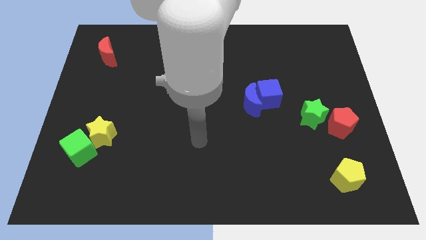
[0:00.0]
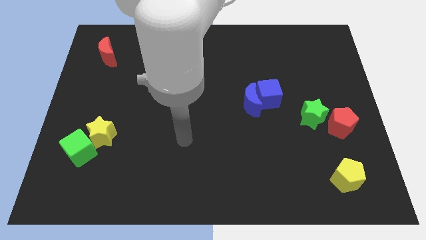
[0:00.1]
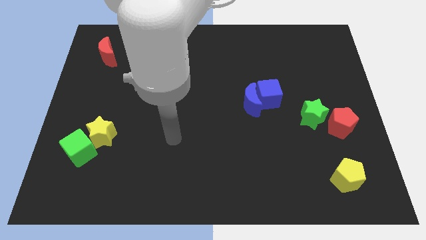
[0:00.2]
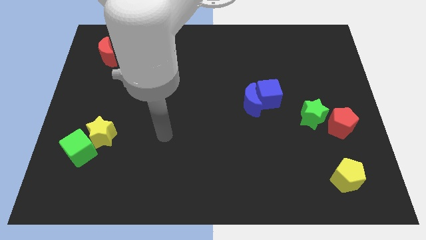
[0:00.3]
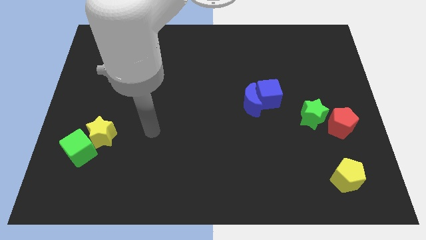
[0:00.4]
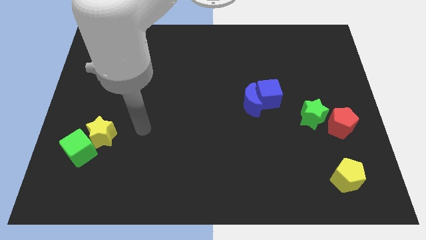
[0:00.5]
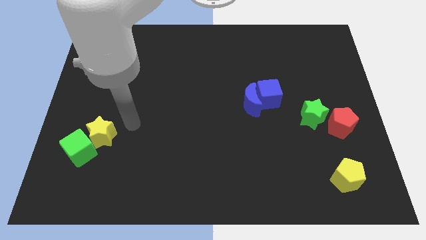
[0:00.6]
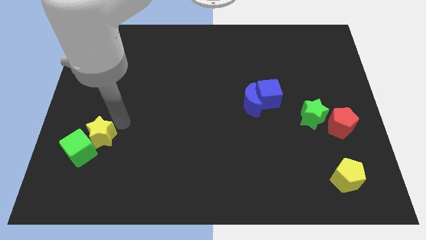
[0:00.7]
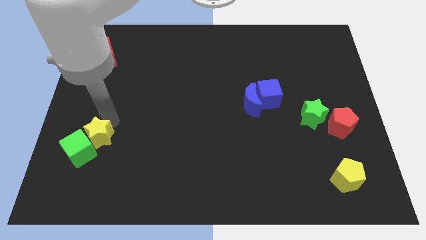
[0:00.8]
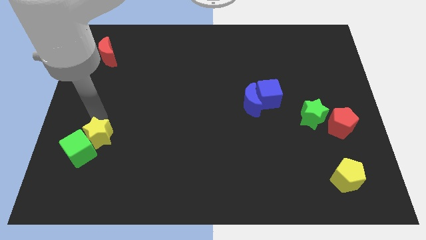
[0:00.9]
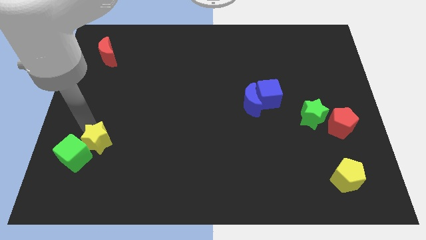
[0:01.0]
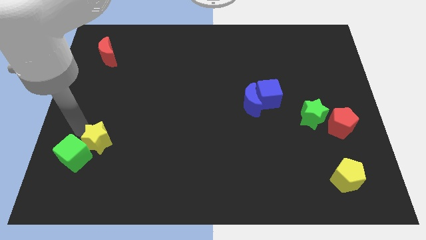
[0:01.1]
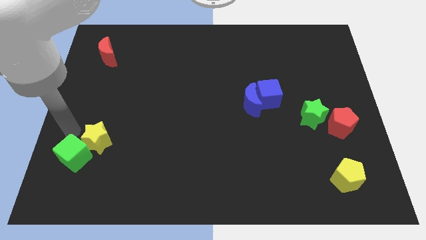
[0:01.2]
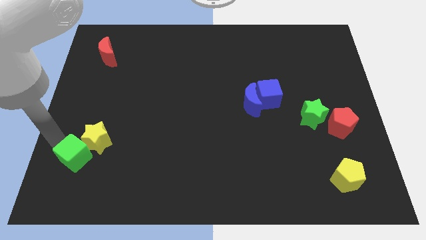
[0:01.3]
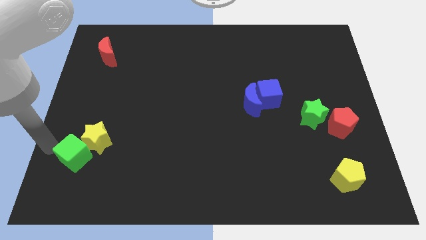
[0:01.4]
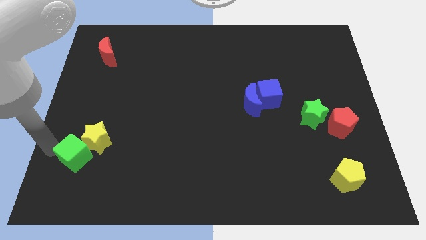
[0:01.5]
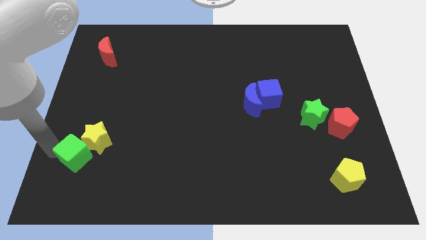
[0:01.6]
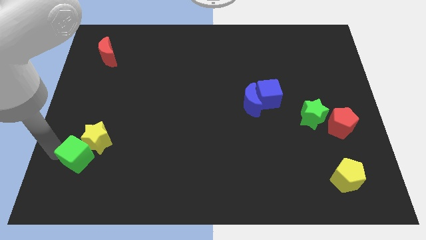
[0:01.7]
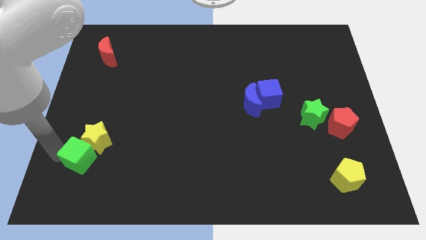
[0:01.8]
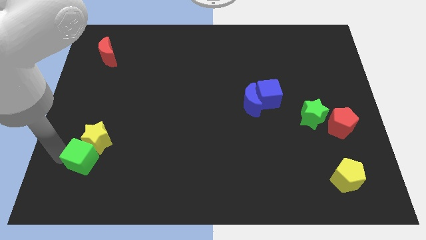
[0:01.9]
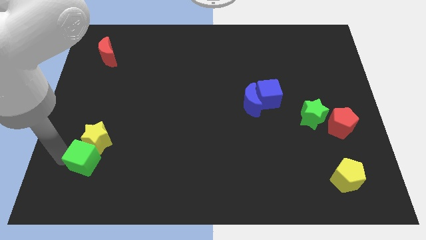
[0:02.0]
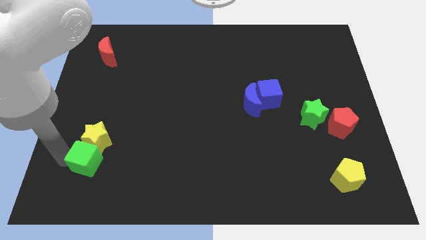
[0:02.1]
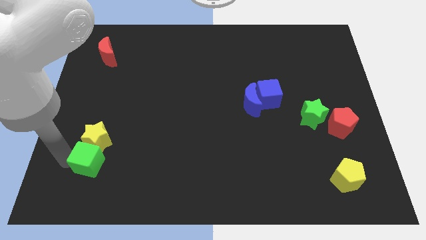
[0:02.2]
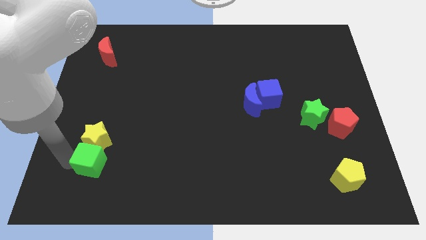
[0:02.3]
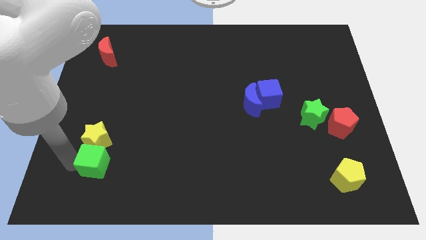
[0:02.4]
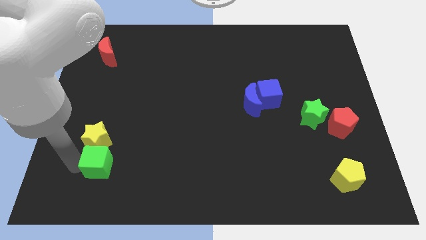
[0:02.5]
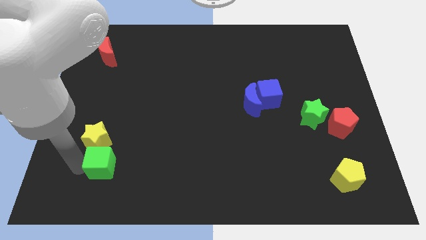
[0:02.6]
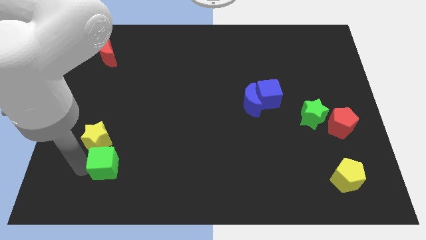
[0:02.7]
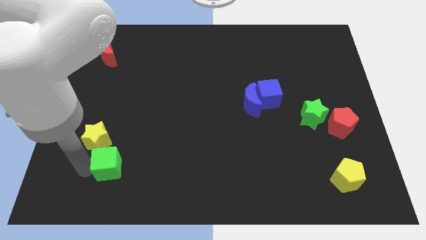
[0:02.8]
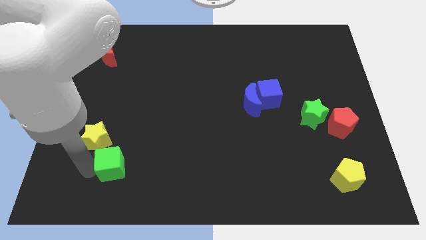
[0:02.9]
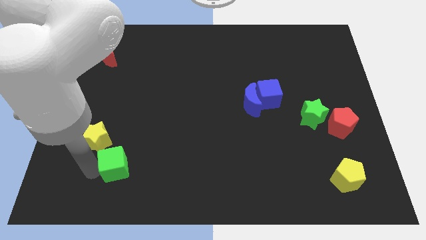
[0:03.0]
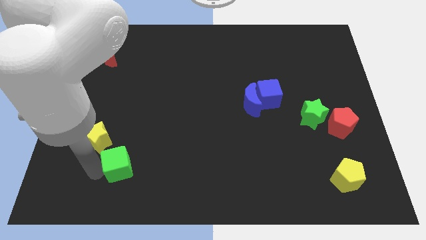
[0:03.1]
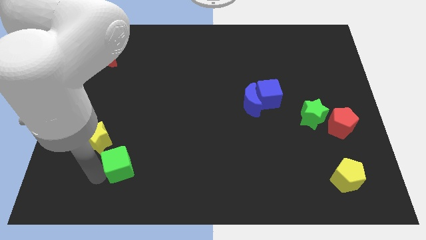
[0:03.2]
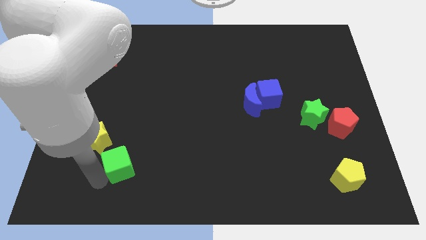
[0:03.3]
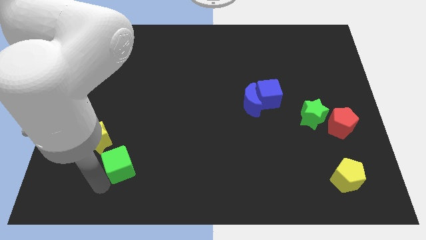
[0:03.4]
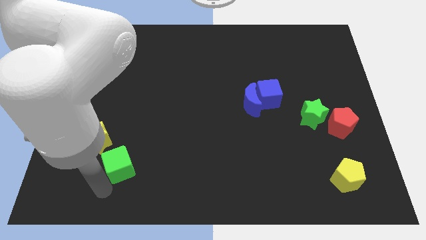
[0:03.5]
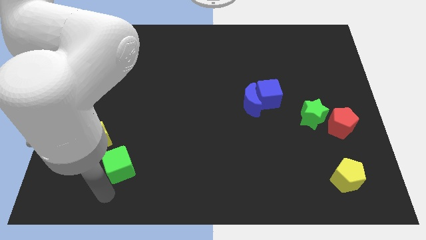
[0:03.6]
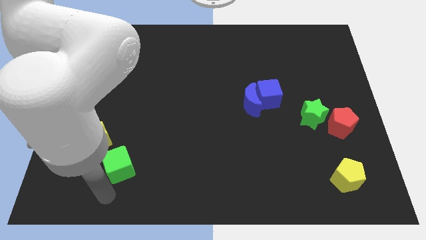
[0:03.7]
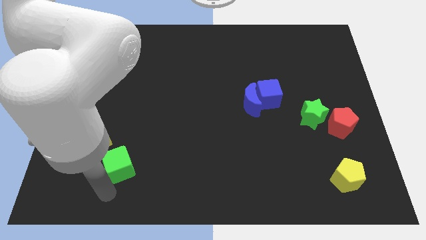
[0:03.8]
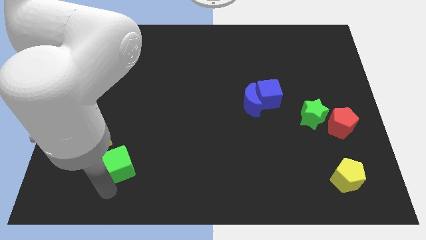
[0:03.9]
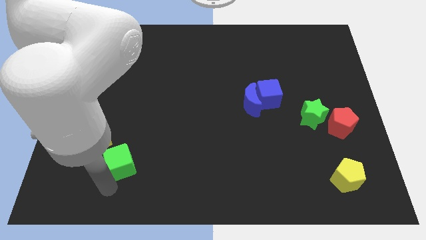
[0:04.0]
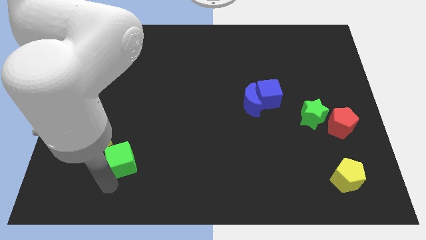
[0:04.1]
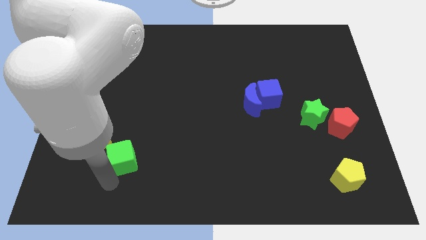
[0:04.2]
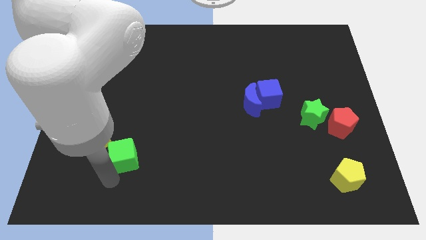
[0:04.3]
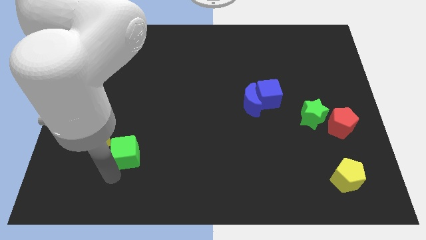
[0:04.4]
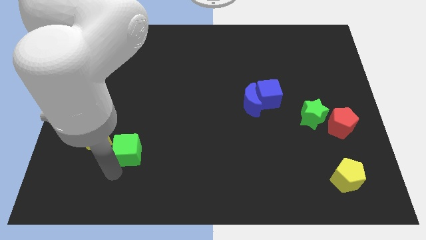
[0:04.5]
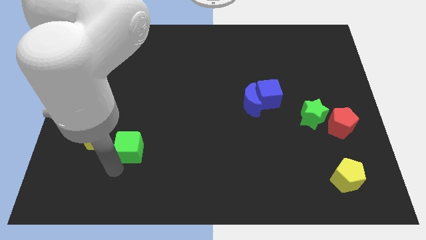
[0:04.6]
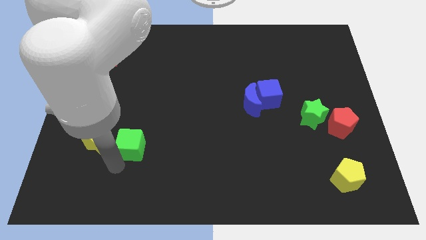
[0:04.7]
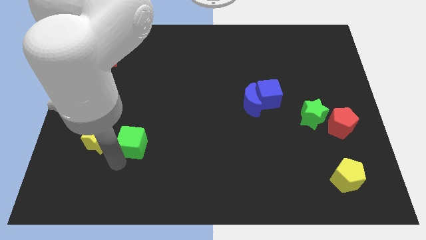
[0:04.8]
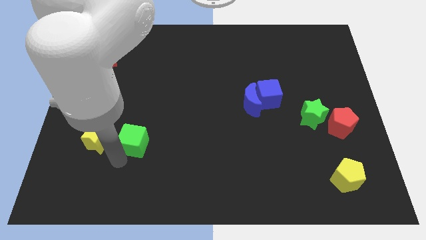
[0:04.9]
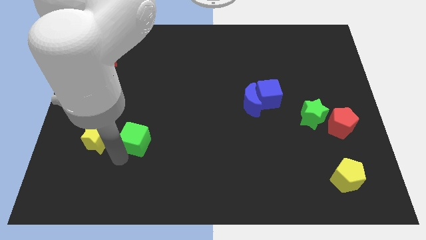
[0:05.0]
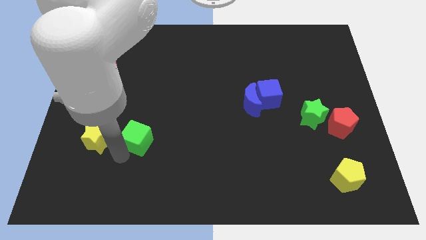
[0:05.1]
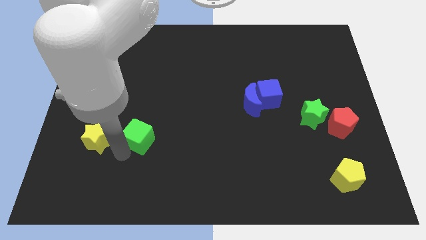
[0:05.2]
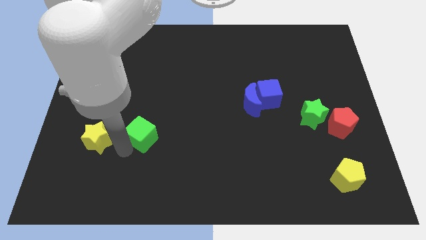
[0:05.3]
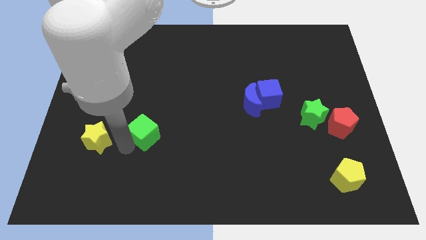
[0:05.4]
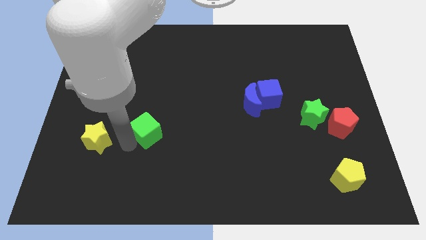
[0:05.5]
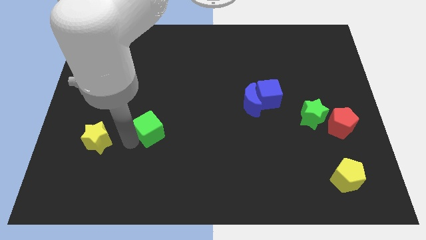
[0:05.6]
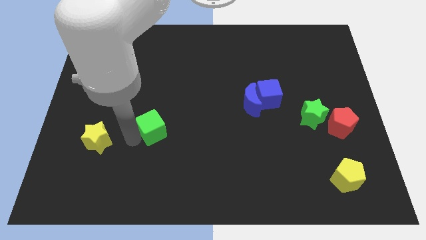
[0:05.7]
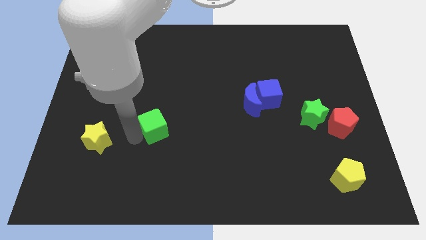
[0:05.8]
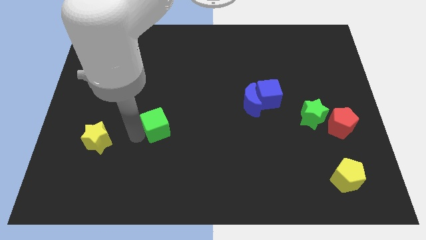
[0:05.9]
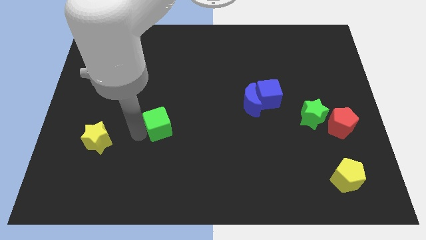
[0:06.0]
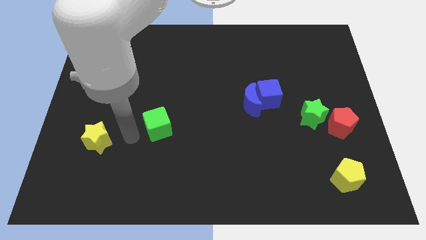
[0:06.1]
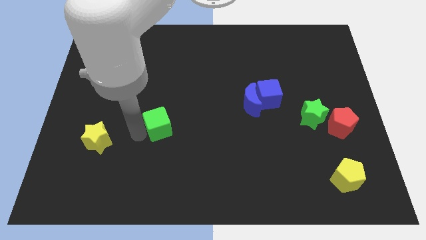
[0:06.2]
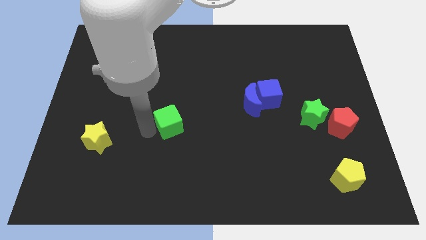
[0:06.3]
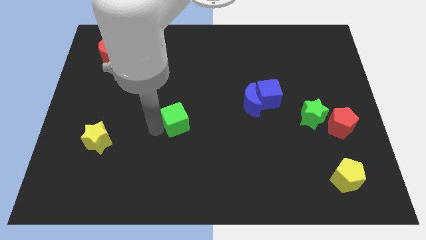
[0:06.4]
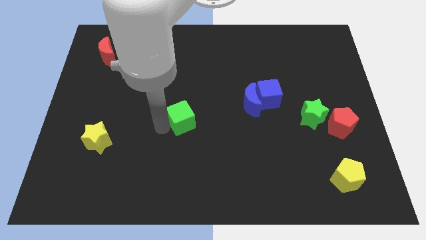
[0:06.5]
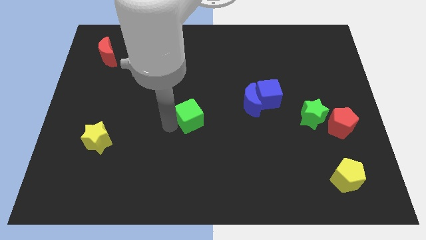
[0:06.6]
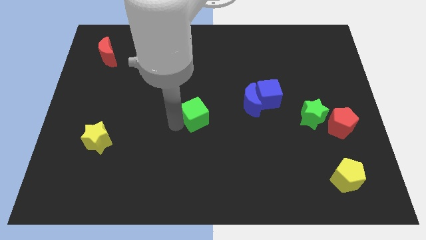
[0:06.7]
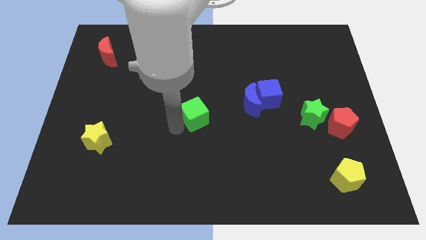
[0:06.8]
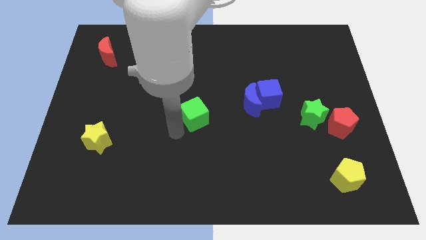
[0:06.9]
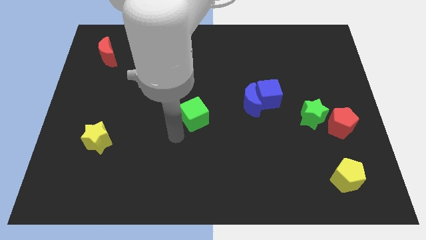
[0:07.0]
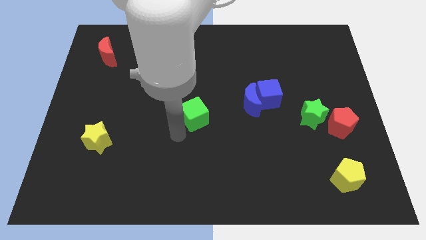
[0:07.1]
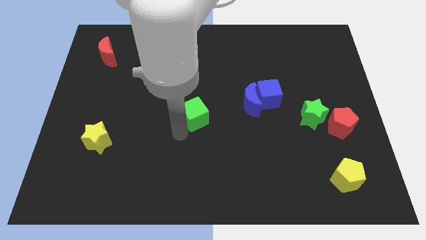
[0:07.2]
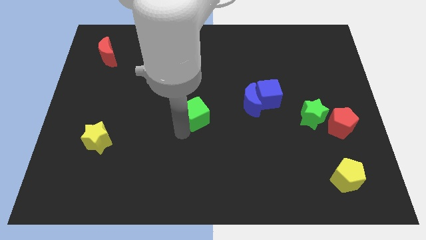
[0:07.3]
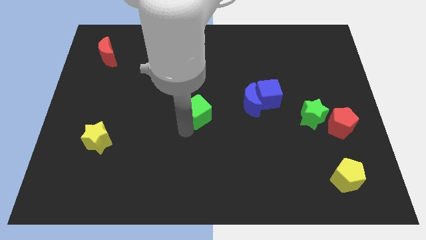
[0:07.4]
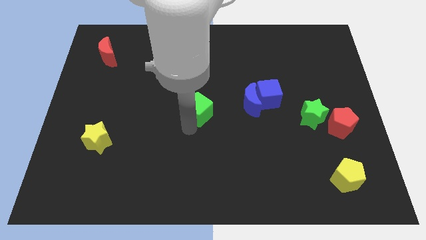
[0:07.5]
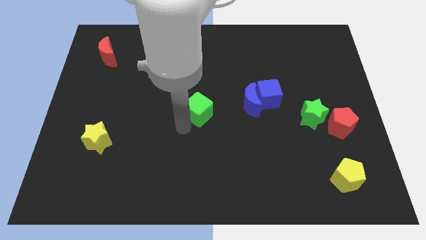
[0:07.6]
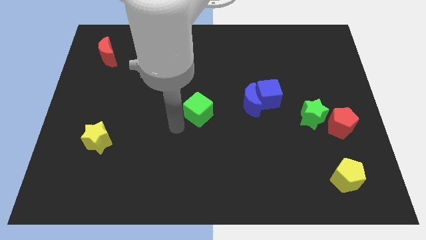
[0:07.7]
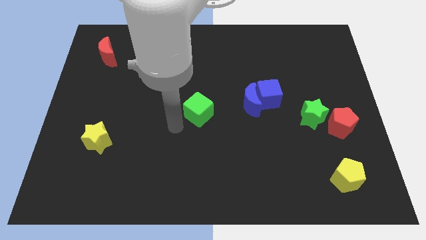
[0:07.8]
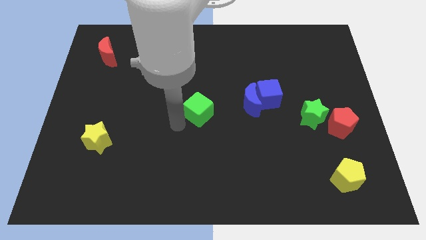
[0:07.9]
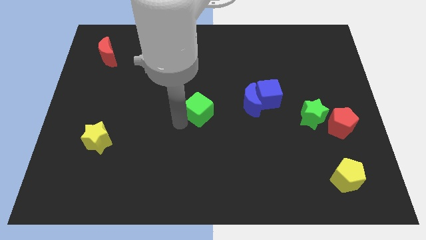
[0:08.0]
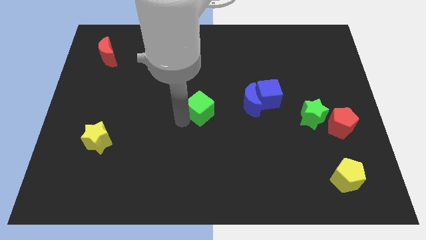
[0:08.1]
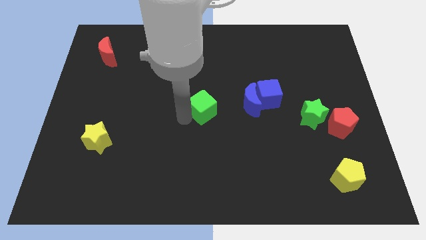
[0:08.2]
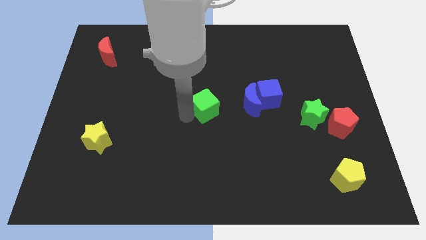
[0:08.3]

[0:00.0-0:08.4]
slide the green cube just left of the blue cube
